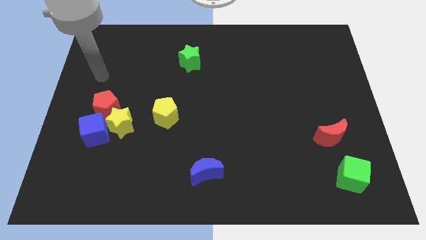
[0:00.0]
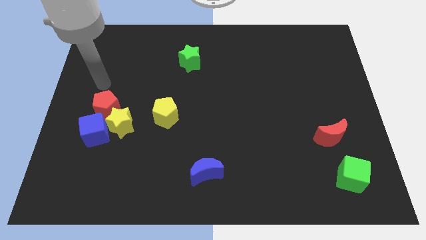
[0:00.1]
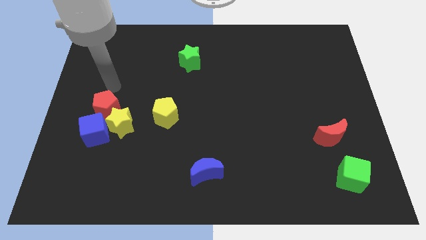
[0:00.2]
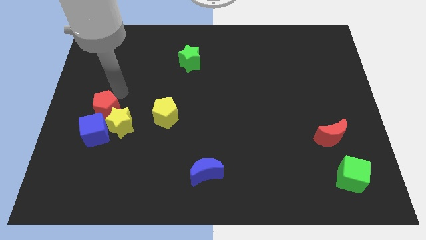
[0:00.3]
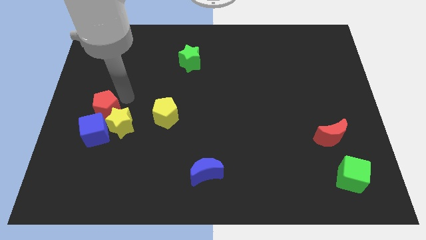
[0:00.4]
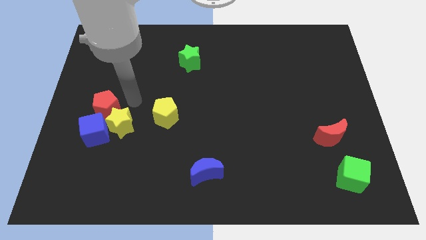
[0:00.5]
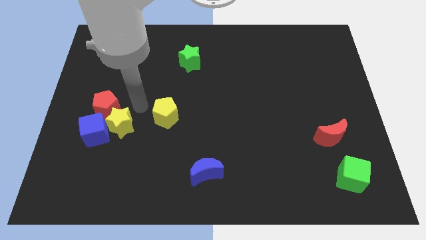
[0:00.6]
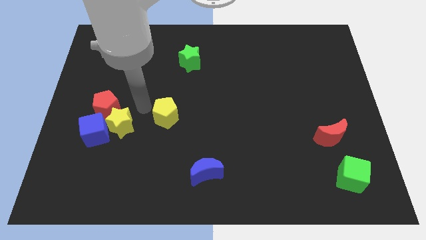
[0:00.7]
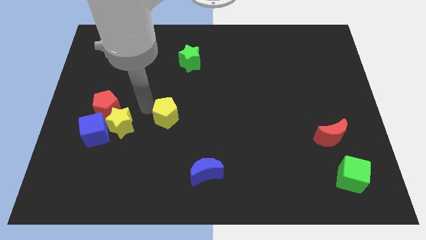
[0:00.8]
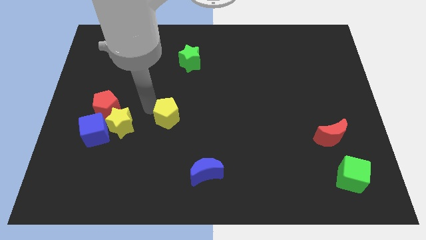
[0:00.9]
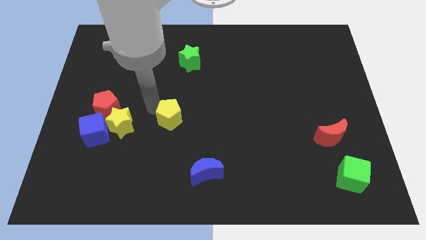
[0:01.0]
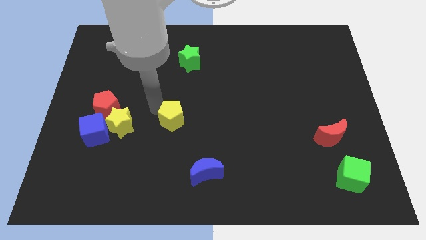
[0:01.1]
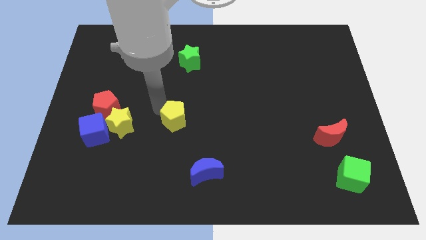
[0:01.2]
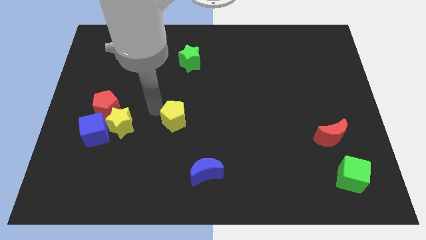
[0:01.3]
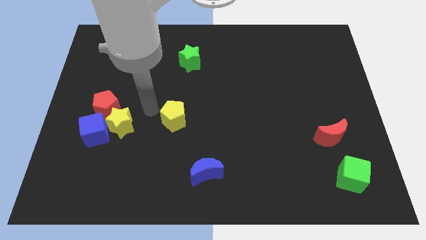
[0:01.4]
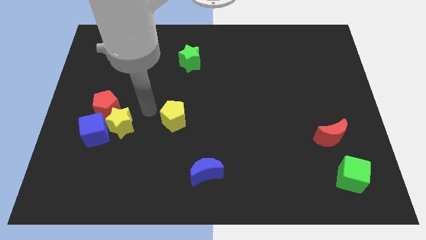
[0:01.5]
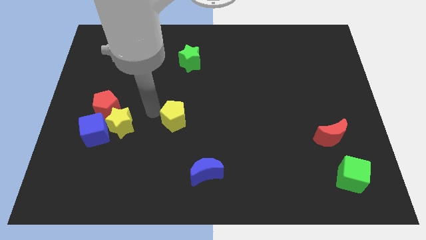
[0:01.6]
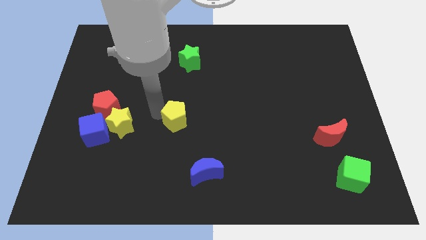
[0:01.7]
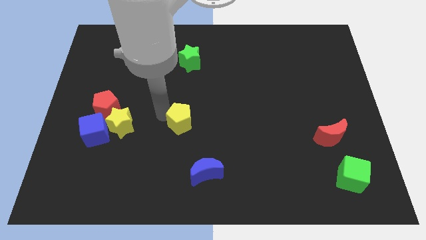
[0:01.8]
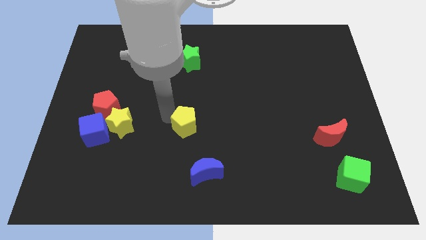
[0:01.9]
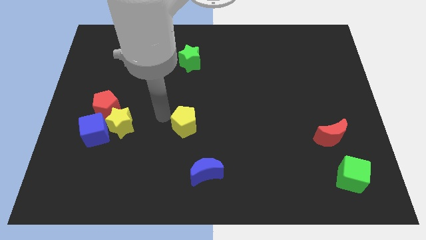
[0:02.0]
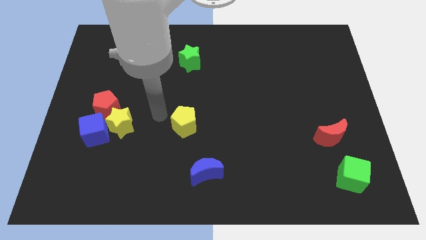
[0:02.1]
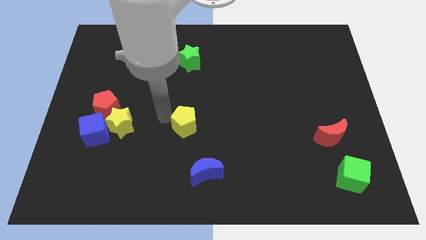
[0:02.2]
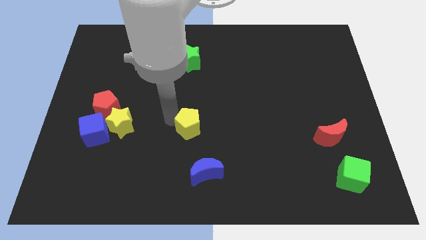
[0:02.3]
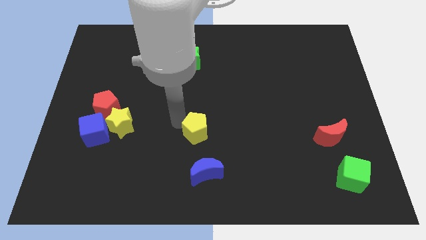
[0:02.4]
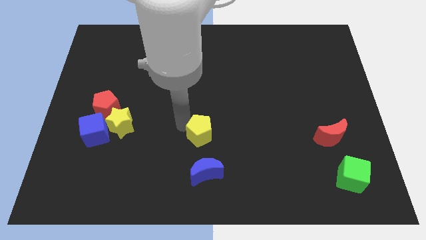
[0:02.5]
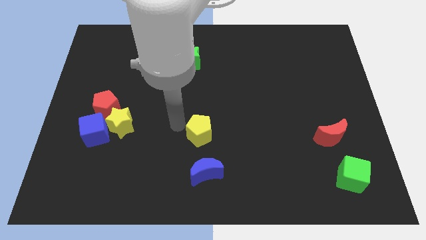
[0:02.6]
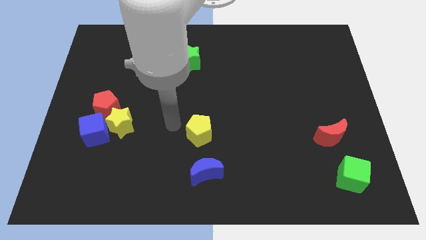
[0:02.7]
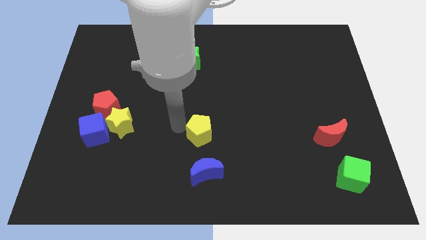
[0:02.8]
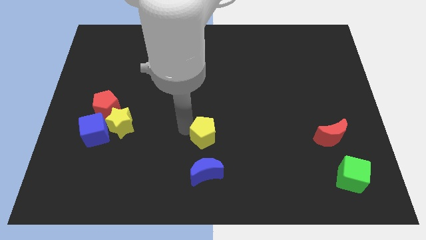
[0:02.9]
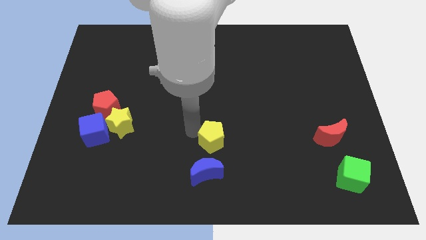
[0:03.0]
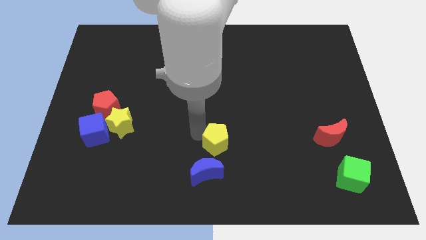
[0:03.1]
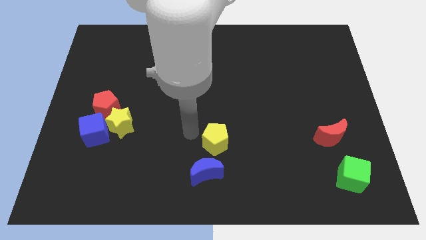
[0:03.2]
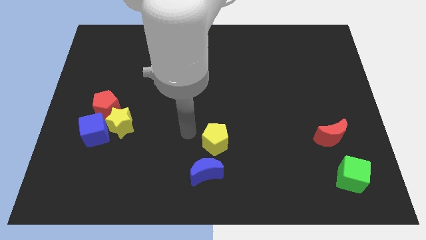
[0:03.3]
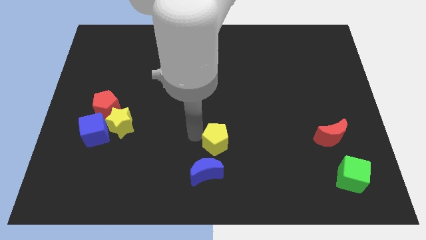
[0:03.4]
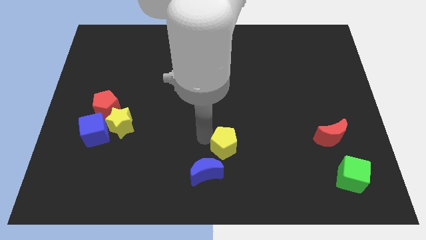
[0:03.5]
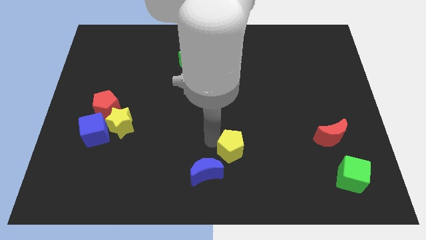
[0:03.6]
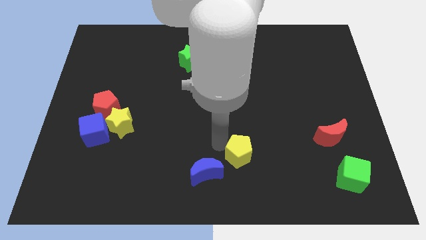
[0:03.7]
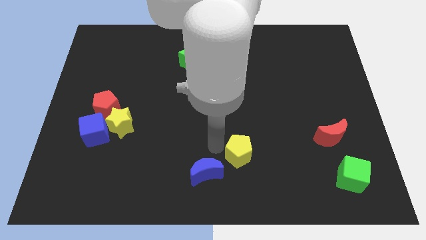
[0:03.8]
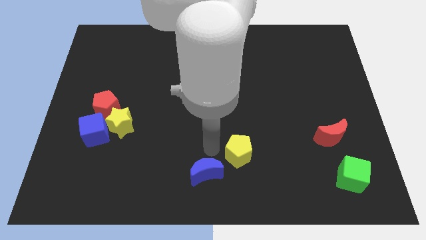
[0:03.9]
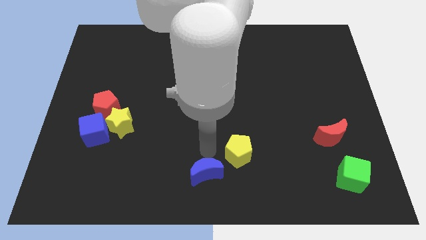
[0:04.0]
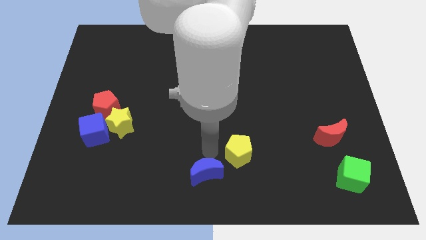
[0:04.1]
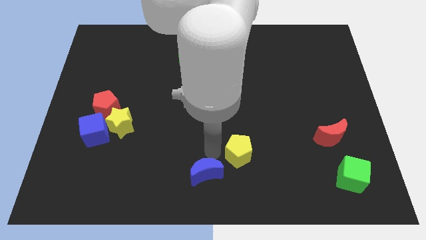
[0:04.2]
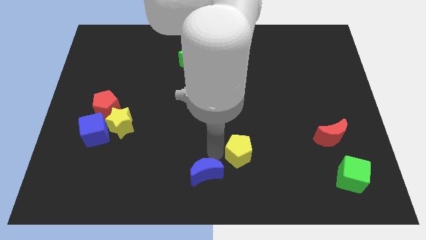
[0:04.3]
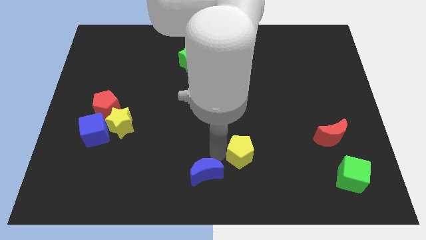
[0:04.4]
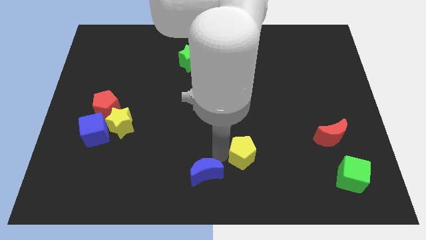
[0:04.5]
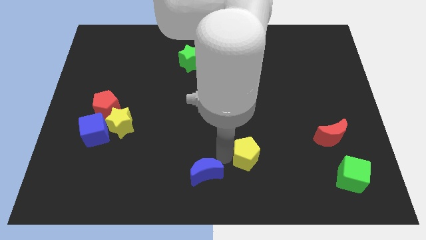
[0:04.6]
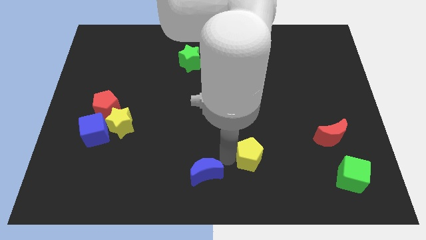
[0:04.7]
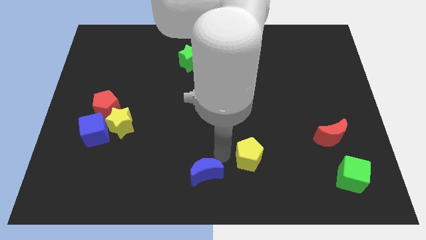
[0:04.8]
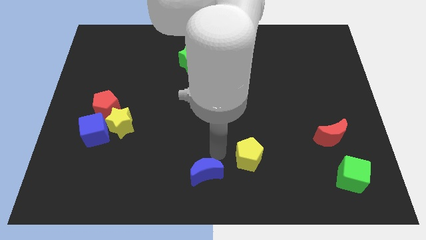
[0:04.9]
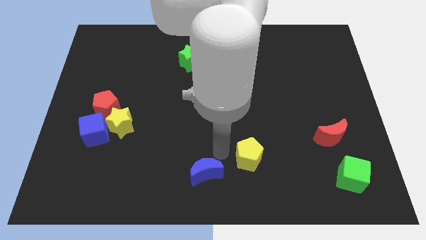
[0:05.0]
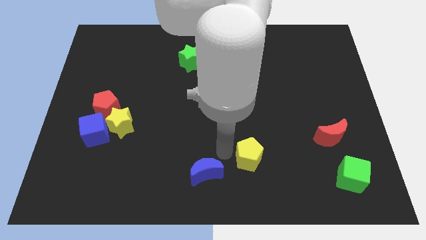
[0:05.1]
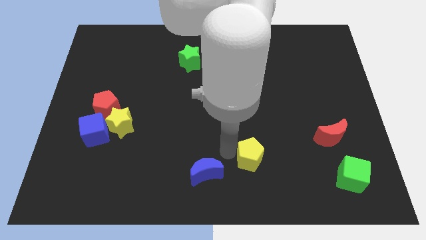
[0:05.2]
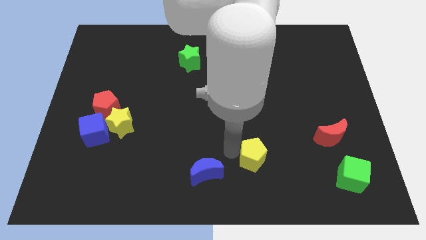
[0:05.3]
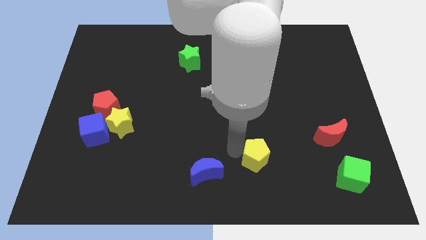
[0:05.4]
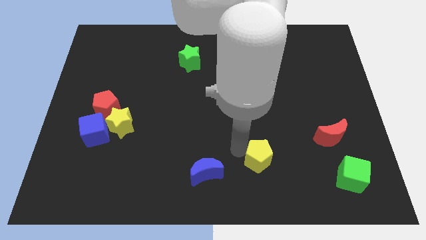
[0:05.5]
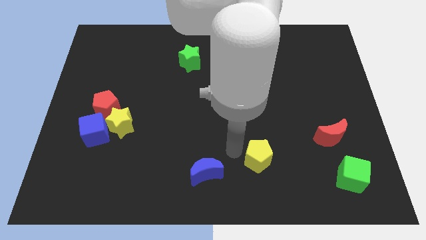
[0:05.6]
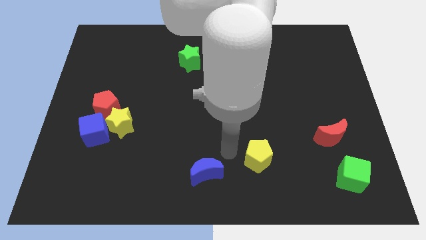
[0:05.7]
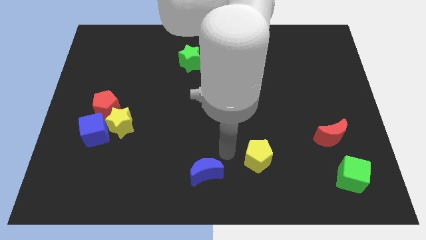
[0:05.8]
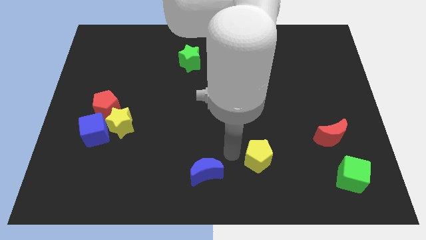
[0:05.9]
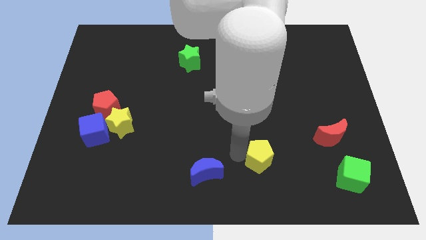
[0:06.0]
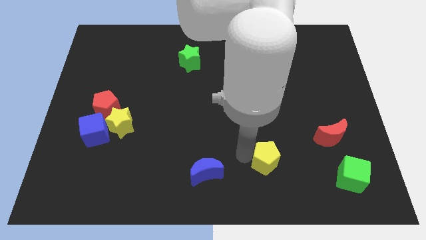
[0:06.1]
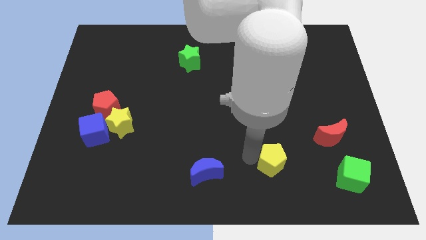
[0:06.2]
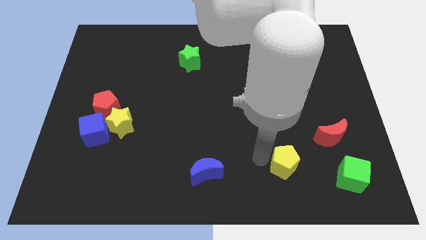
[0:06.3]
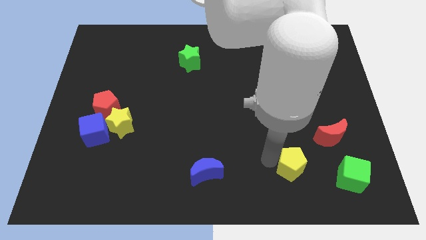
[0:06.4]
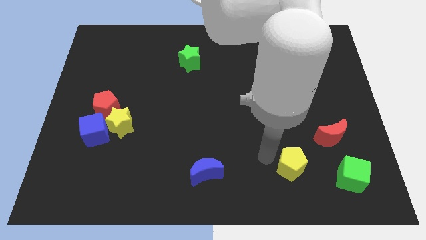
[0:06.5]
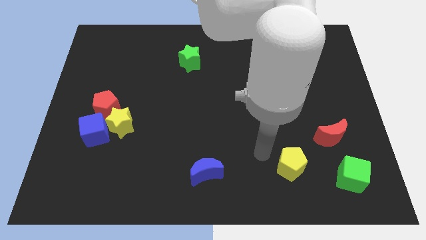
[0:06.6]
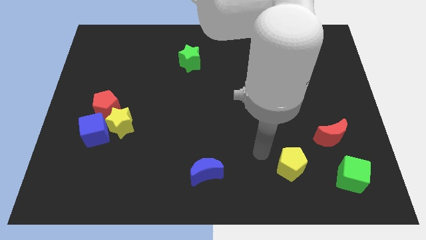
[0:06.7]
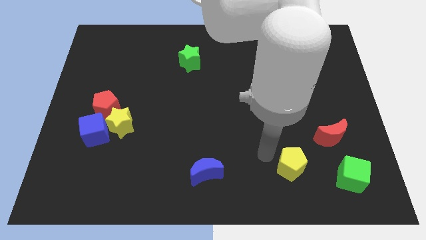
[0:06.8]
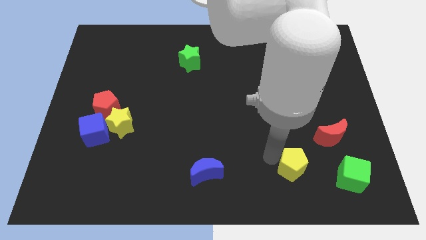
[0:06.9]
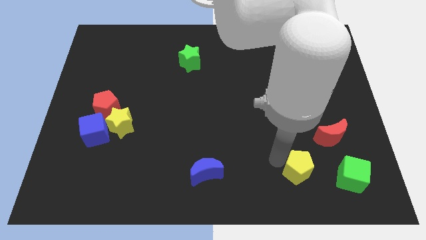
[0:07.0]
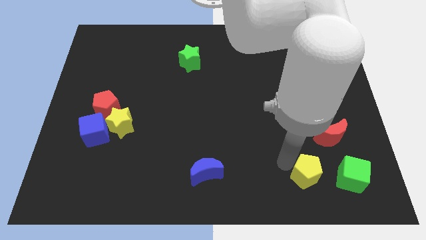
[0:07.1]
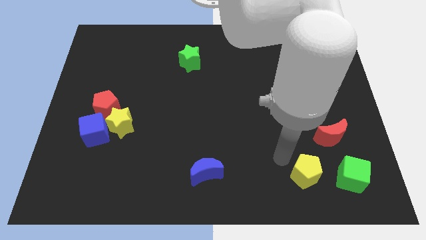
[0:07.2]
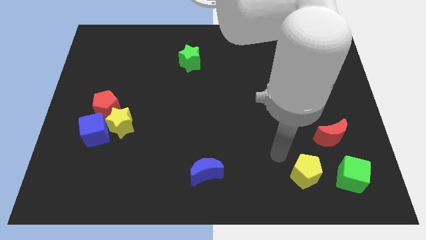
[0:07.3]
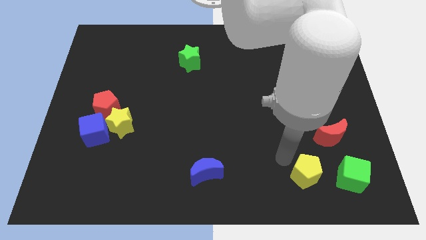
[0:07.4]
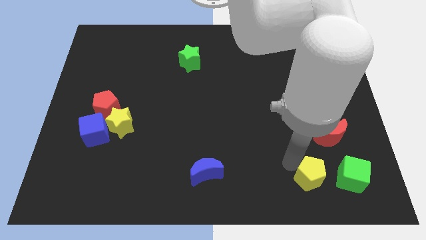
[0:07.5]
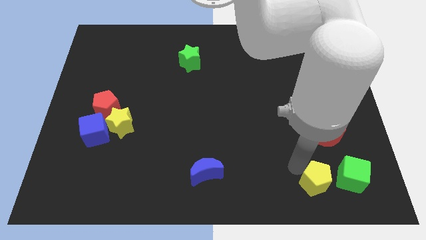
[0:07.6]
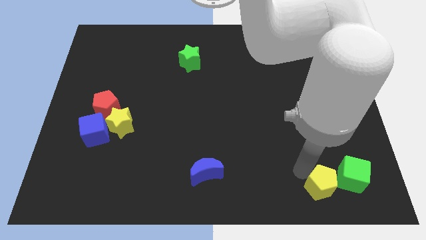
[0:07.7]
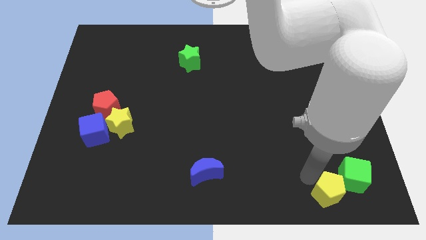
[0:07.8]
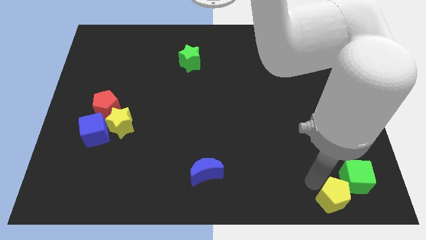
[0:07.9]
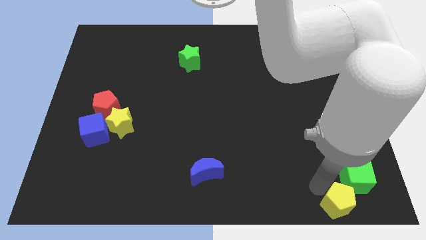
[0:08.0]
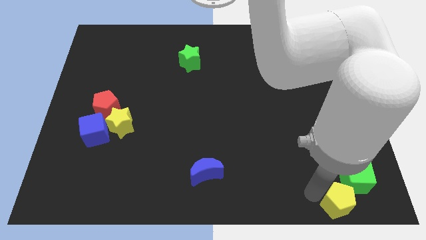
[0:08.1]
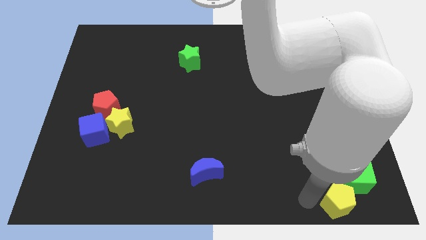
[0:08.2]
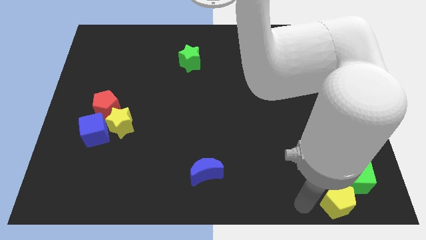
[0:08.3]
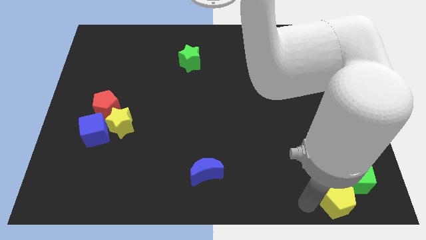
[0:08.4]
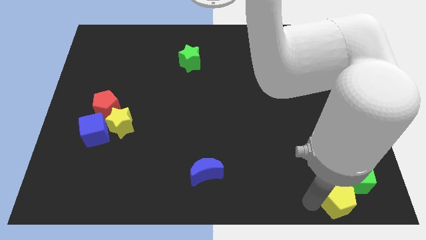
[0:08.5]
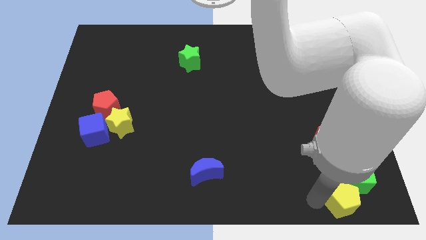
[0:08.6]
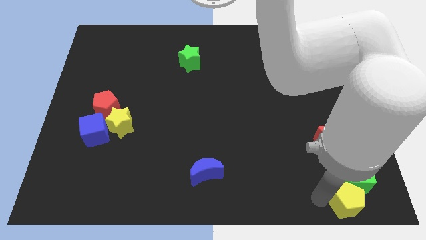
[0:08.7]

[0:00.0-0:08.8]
put the yellow pentagon to the lower right corner
